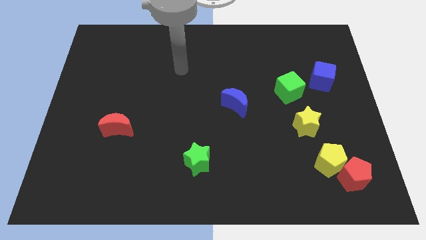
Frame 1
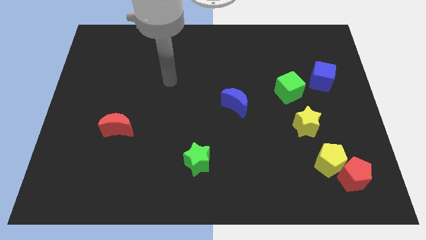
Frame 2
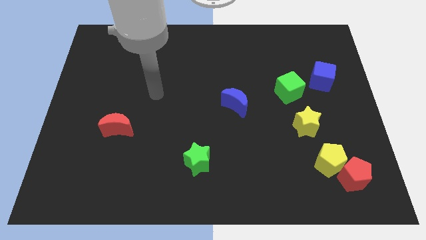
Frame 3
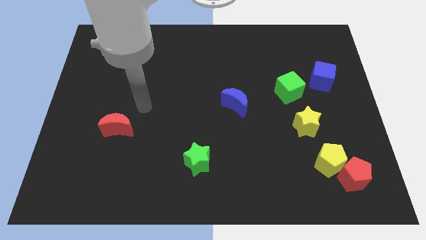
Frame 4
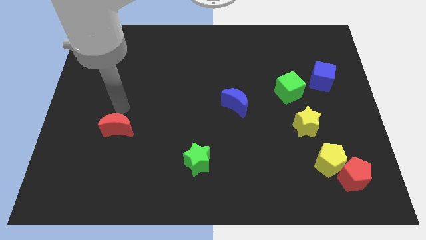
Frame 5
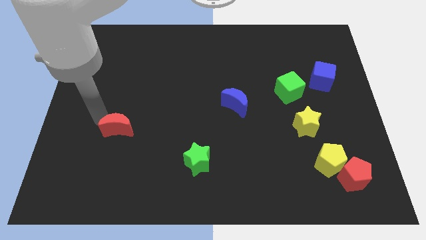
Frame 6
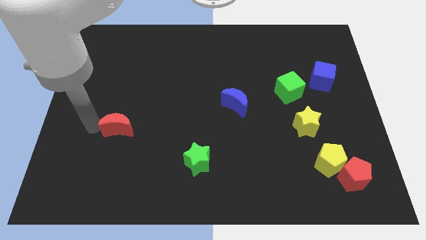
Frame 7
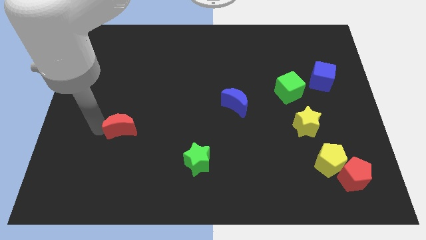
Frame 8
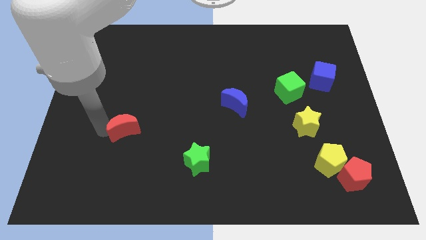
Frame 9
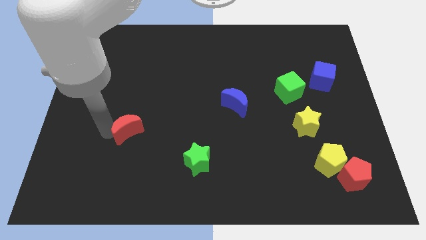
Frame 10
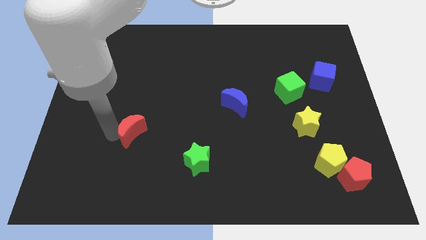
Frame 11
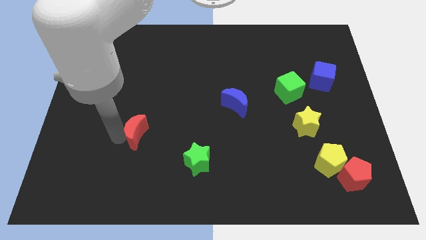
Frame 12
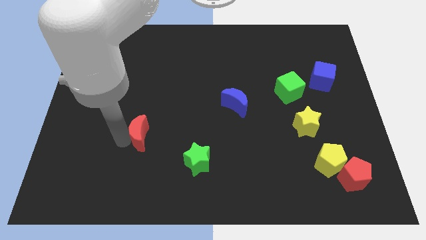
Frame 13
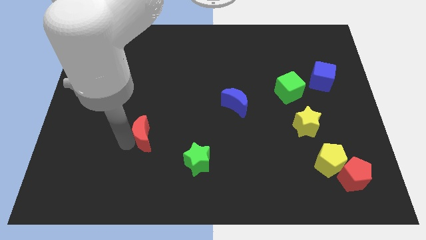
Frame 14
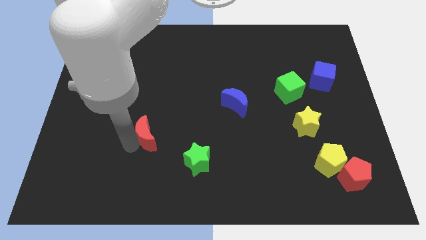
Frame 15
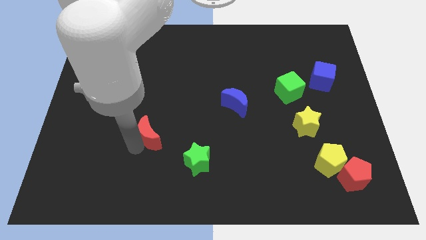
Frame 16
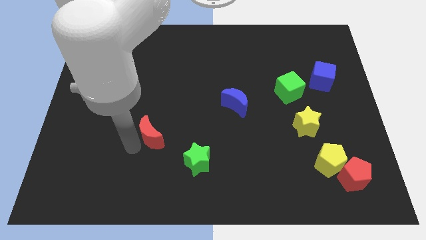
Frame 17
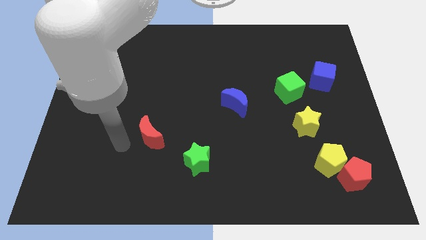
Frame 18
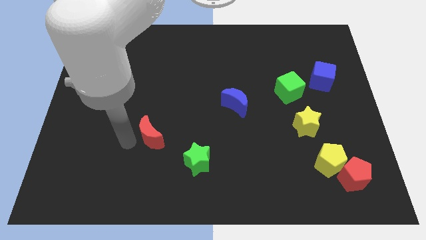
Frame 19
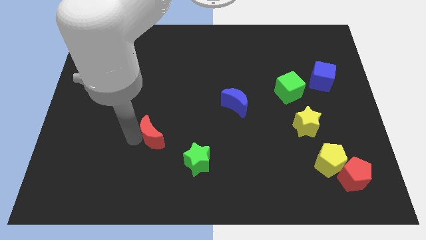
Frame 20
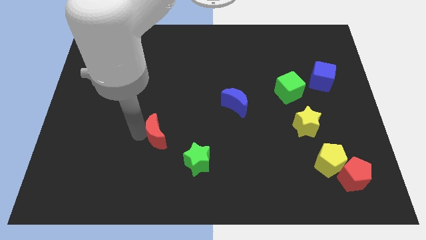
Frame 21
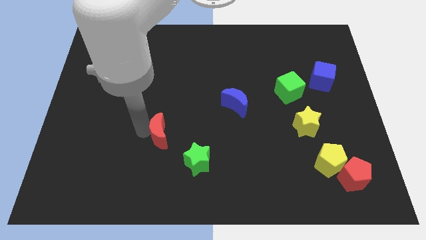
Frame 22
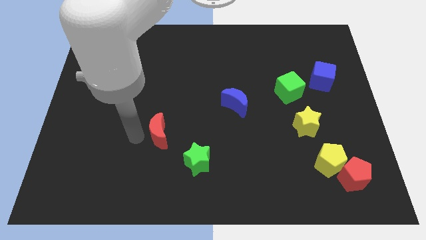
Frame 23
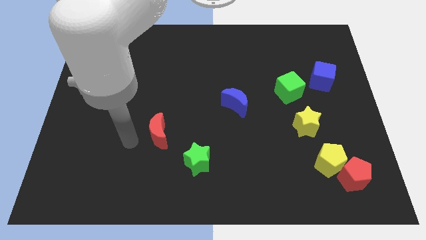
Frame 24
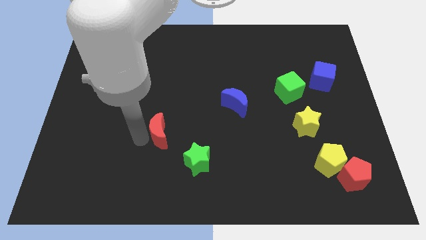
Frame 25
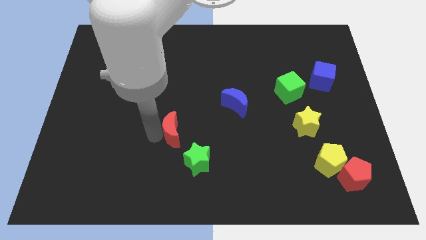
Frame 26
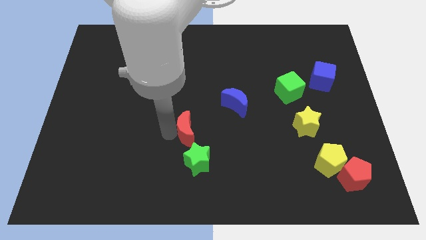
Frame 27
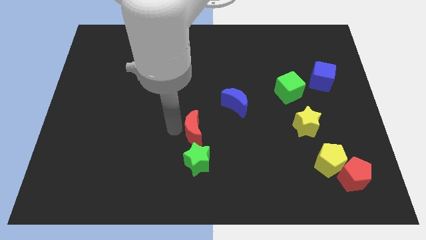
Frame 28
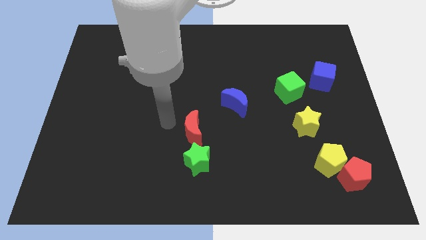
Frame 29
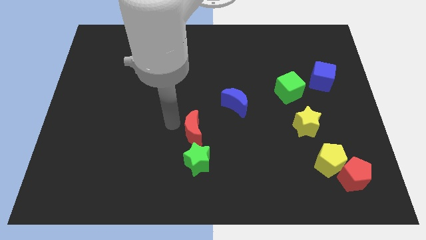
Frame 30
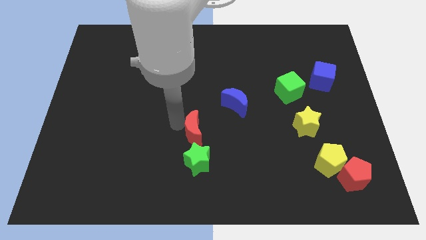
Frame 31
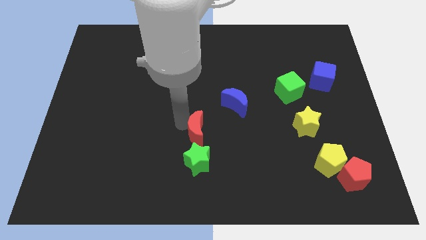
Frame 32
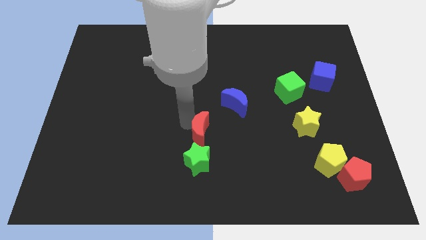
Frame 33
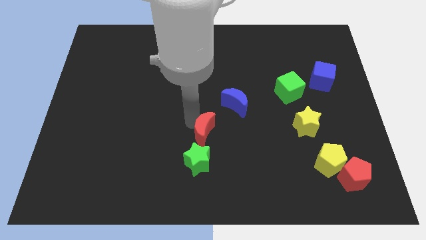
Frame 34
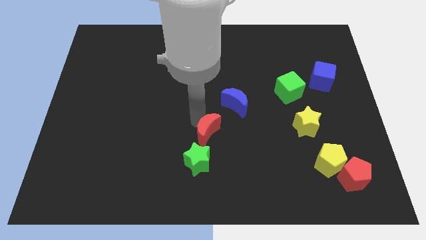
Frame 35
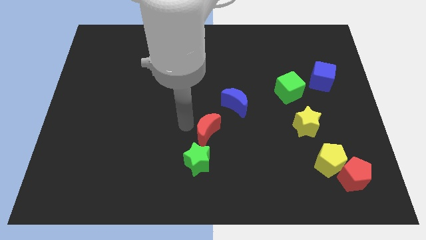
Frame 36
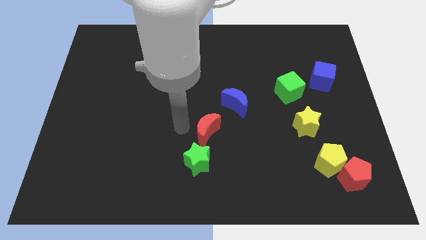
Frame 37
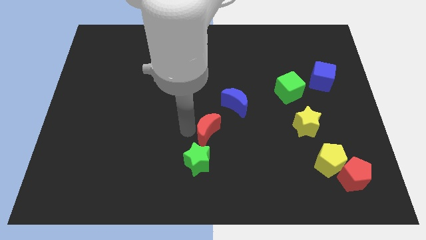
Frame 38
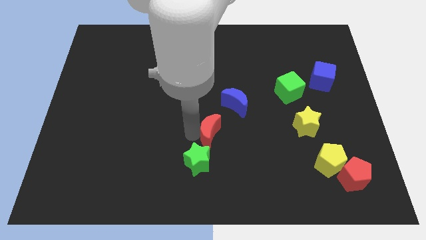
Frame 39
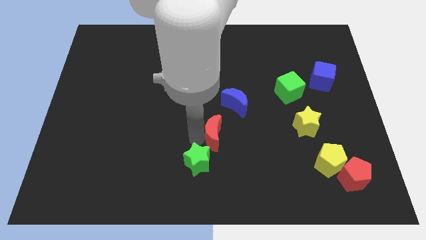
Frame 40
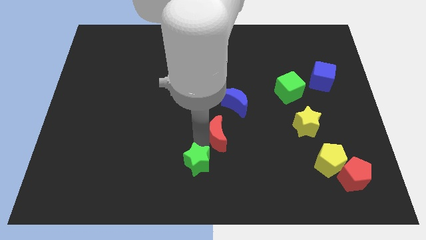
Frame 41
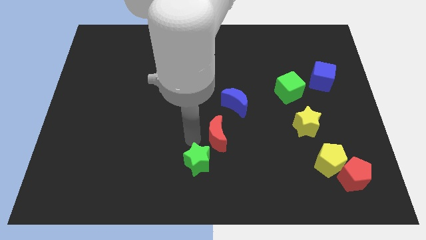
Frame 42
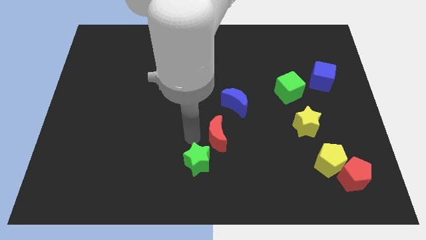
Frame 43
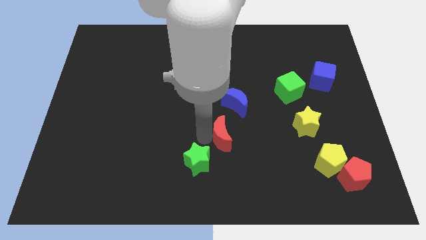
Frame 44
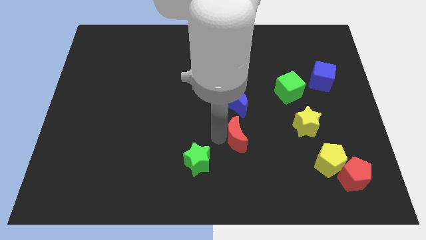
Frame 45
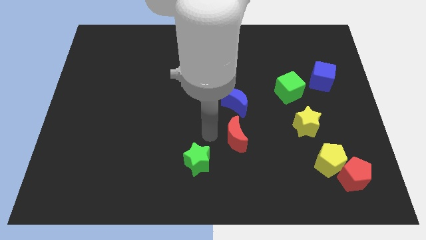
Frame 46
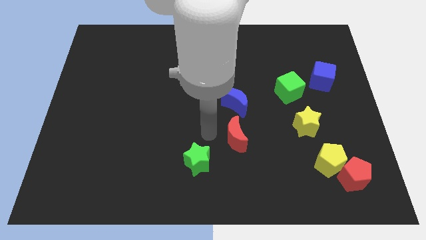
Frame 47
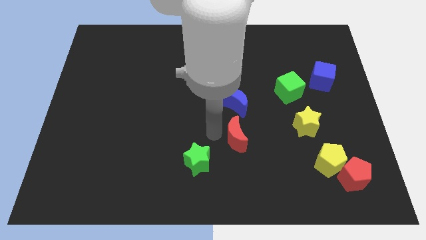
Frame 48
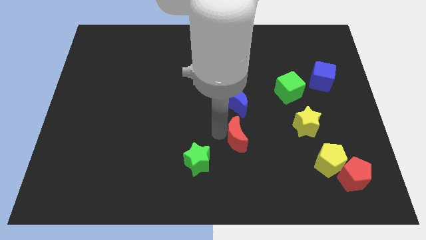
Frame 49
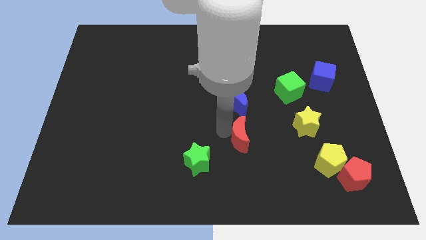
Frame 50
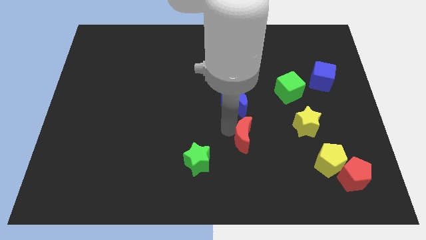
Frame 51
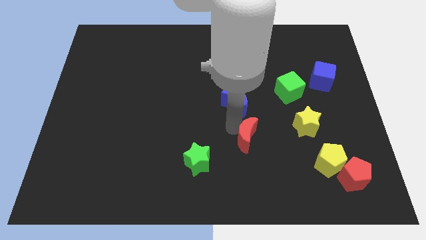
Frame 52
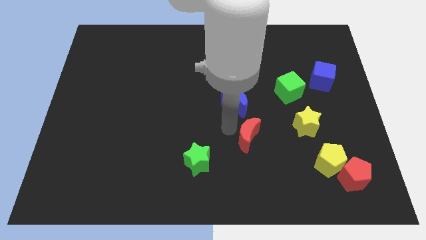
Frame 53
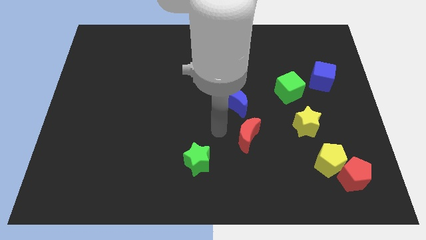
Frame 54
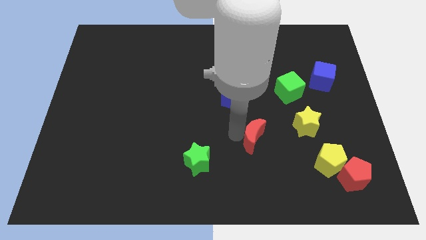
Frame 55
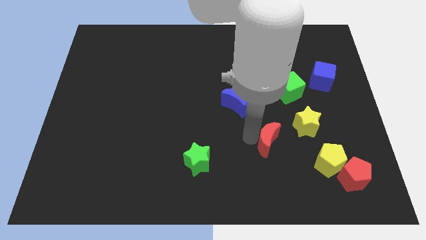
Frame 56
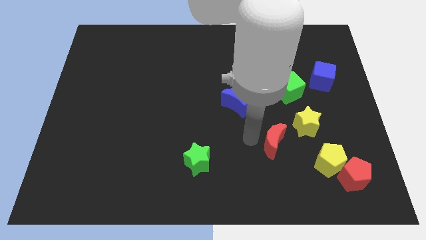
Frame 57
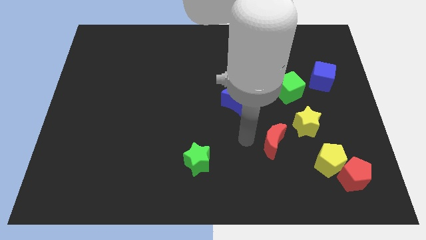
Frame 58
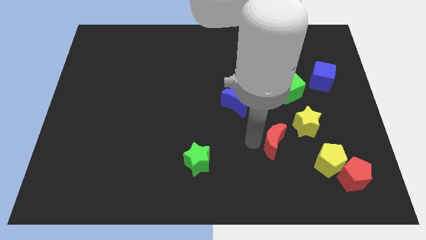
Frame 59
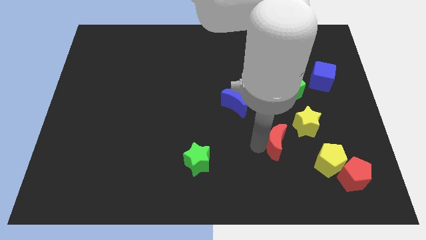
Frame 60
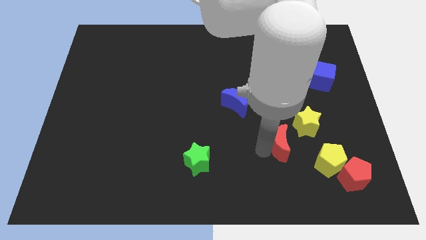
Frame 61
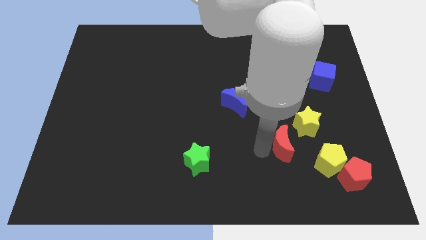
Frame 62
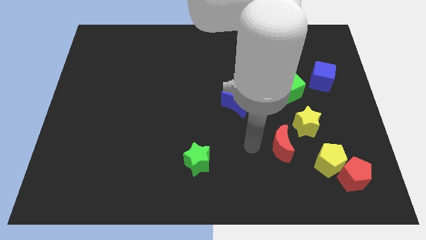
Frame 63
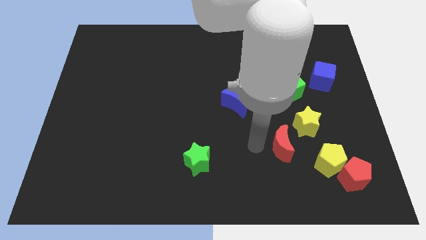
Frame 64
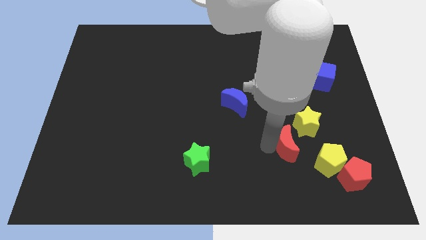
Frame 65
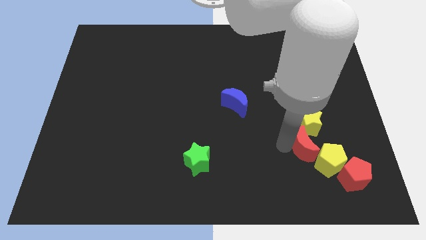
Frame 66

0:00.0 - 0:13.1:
move the red moon to the yellow pentagon

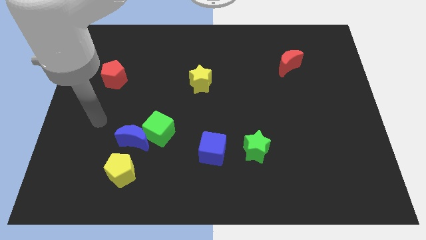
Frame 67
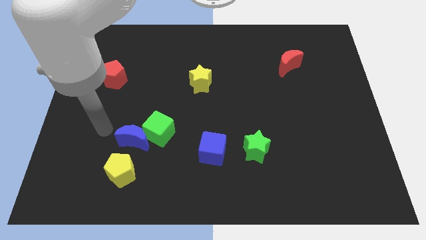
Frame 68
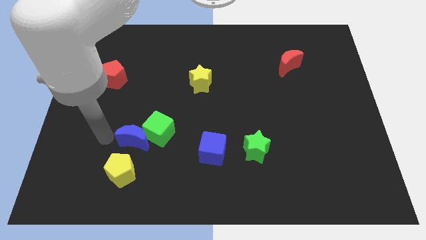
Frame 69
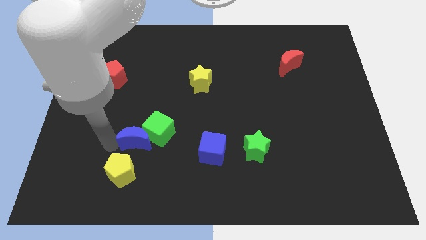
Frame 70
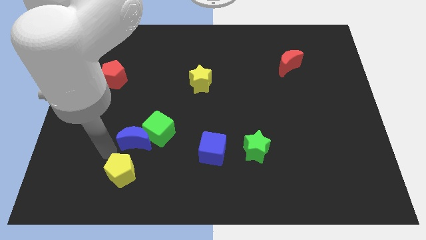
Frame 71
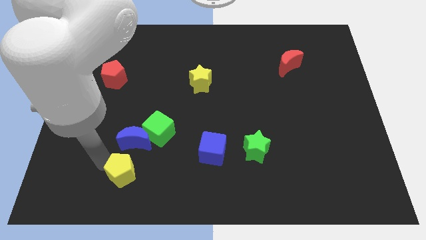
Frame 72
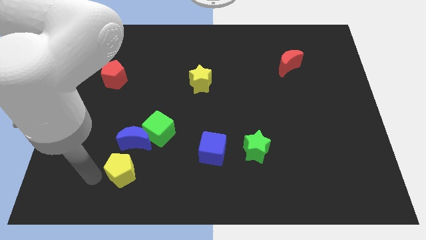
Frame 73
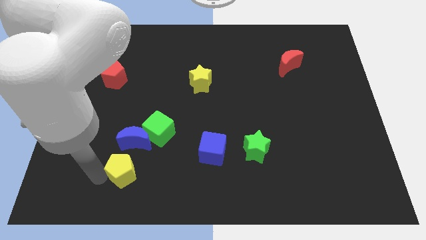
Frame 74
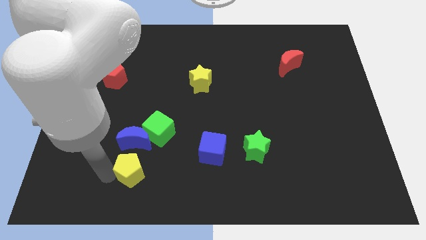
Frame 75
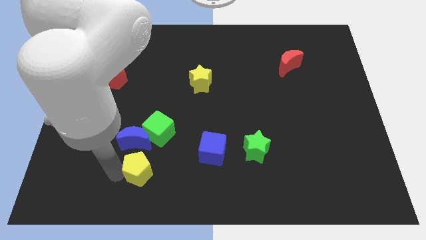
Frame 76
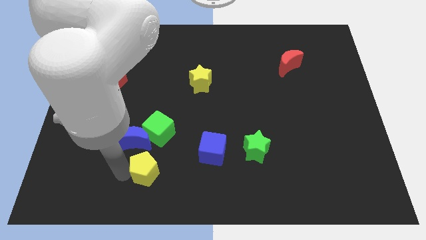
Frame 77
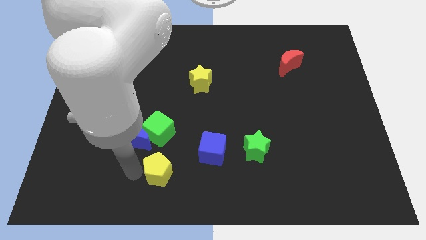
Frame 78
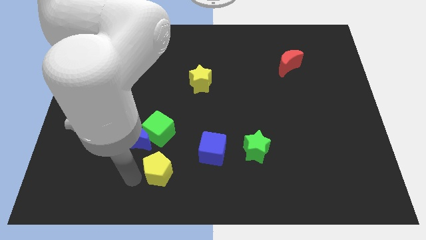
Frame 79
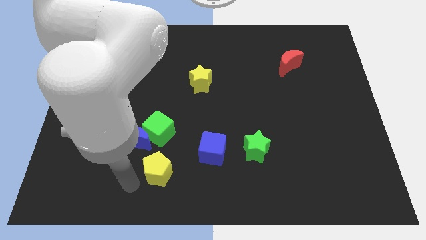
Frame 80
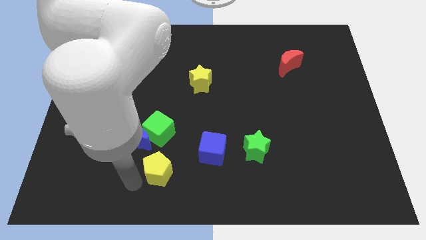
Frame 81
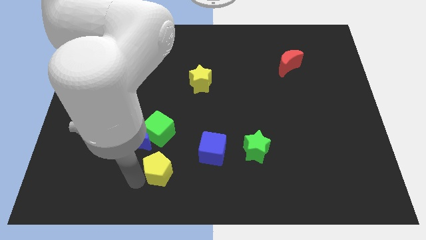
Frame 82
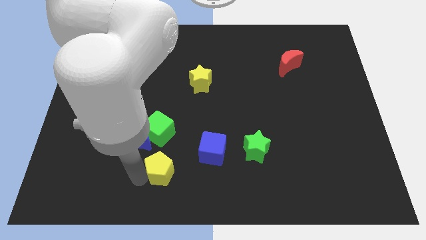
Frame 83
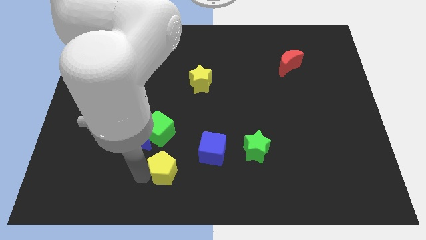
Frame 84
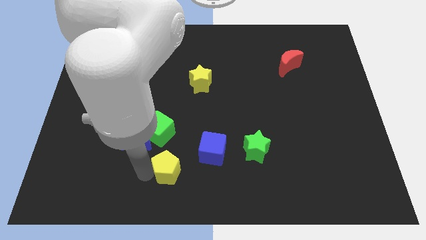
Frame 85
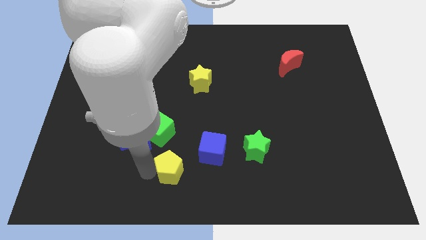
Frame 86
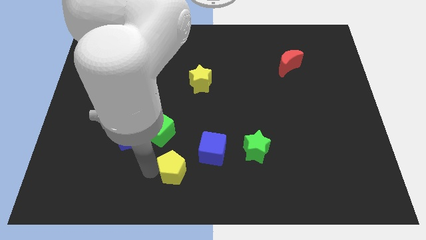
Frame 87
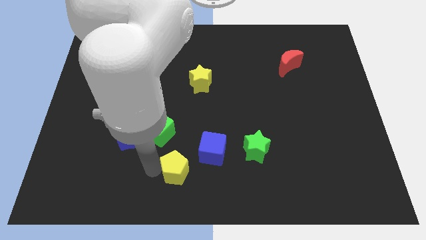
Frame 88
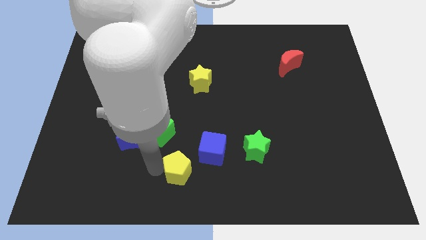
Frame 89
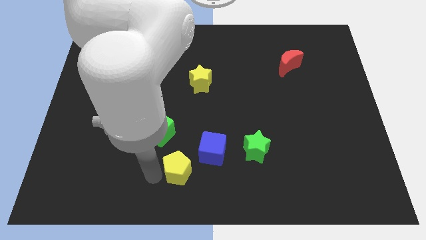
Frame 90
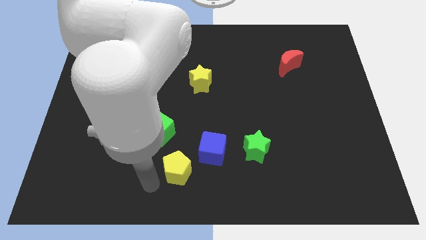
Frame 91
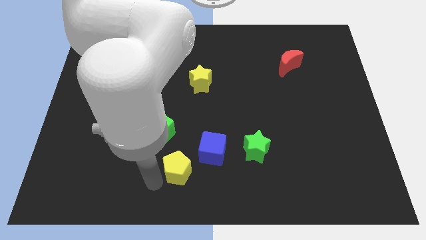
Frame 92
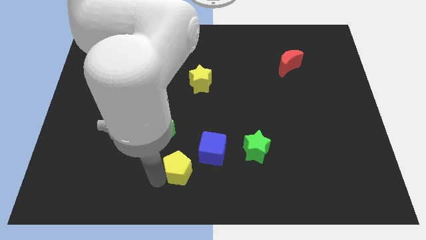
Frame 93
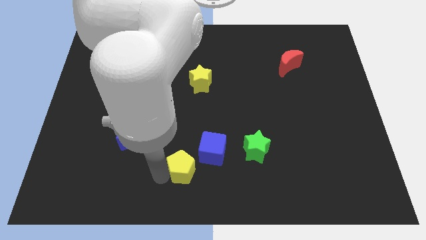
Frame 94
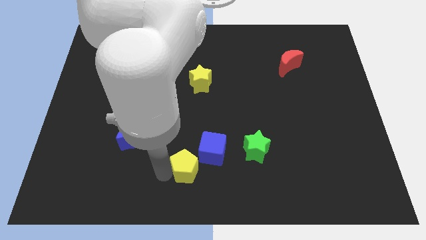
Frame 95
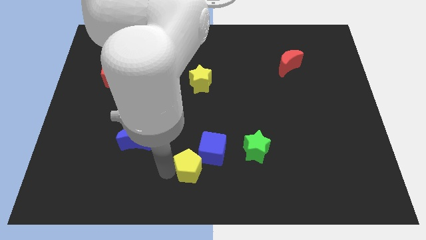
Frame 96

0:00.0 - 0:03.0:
put the yellow pentagon towards the blue cube
